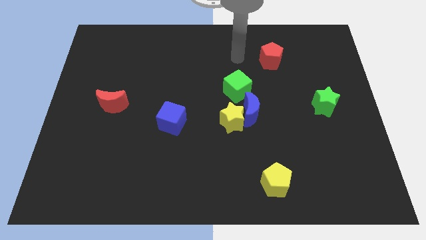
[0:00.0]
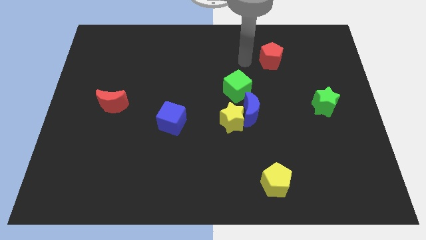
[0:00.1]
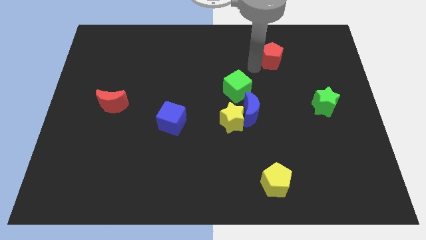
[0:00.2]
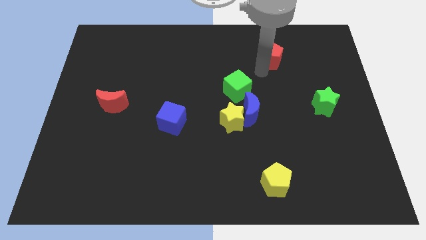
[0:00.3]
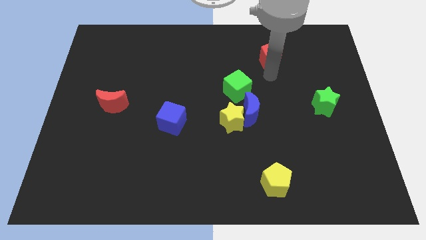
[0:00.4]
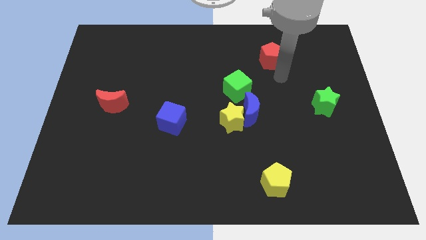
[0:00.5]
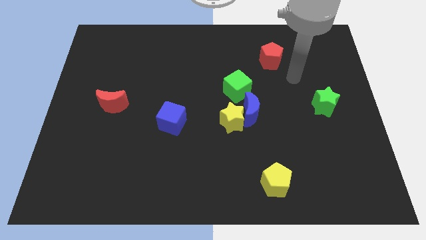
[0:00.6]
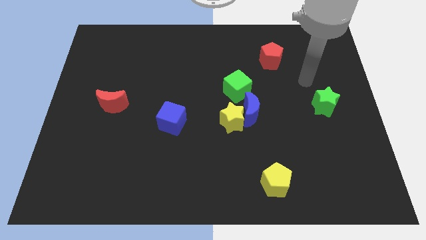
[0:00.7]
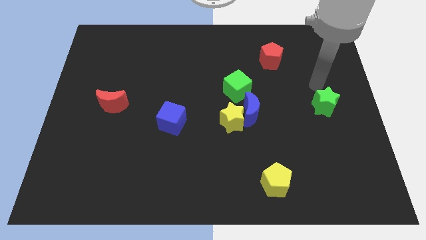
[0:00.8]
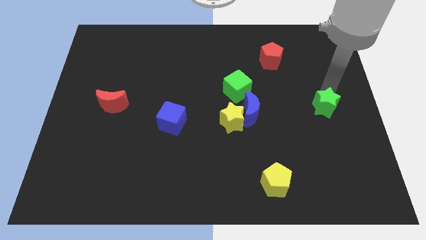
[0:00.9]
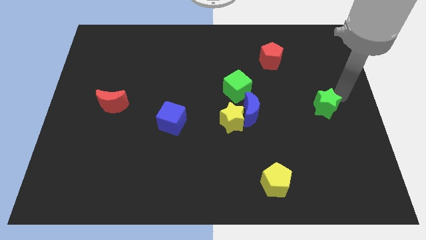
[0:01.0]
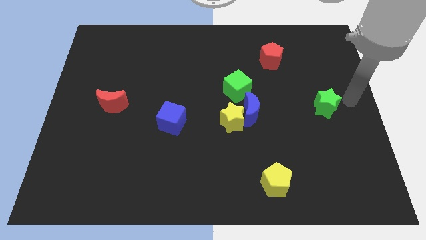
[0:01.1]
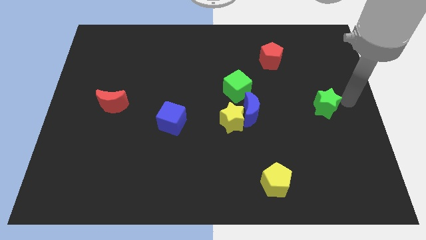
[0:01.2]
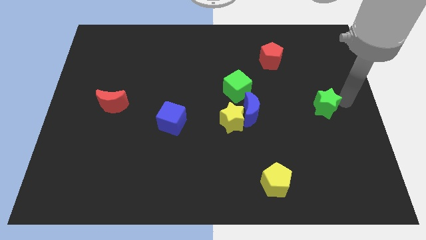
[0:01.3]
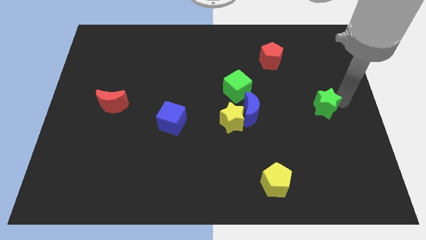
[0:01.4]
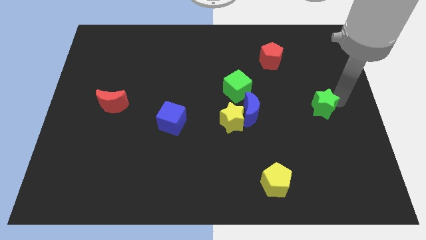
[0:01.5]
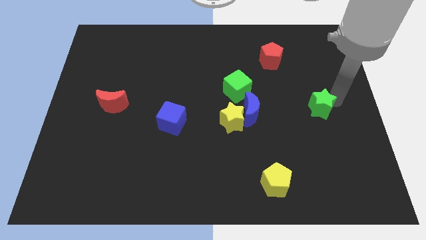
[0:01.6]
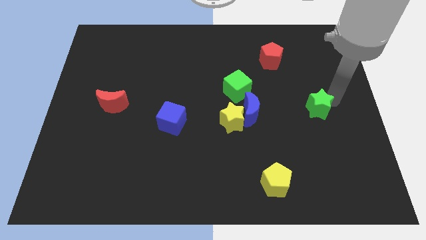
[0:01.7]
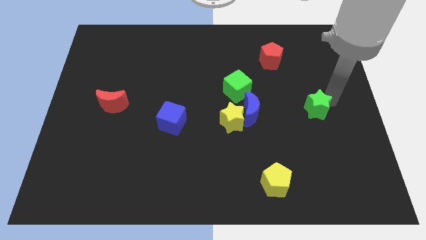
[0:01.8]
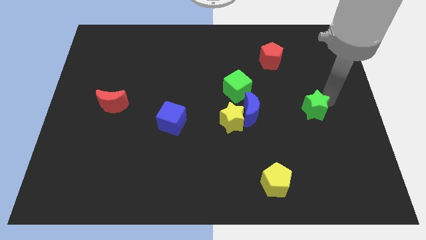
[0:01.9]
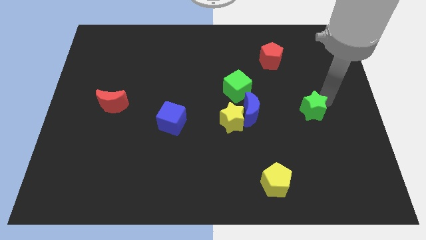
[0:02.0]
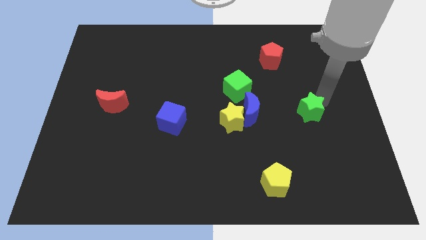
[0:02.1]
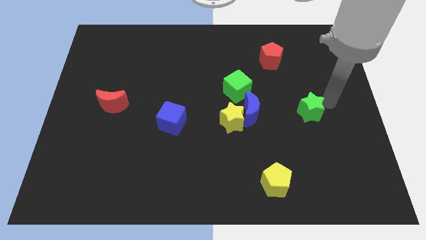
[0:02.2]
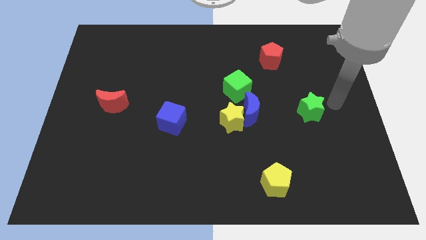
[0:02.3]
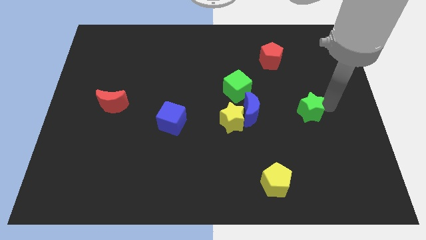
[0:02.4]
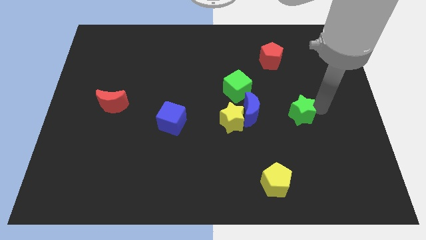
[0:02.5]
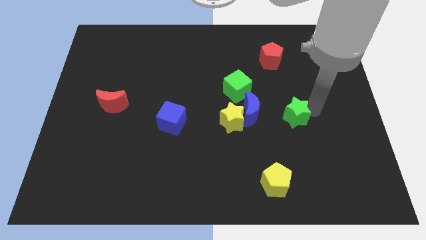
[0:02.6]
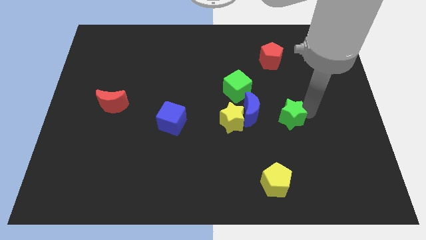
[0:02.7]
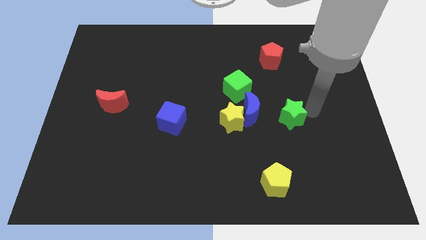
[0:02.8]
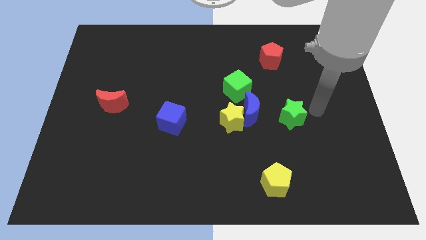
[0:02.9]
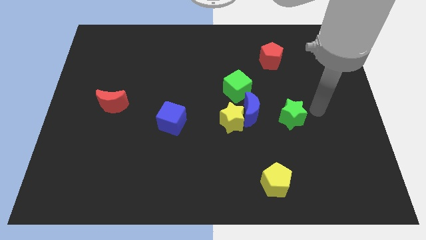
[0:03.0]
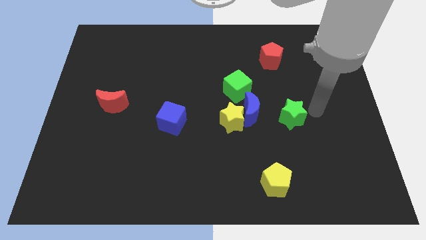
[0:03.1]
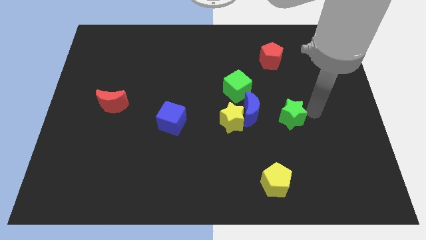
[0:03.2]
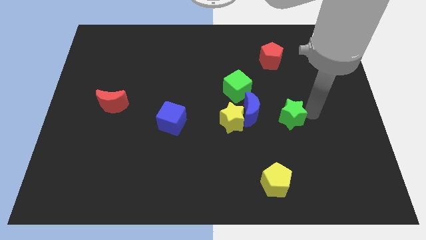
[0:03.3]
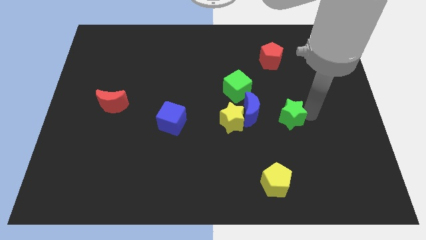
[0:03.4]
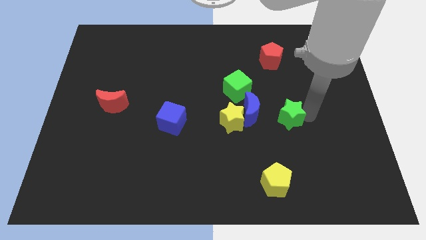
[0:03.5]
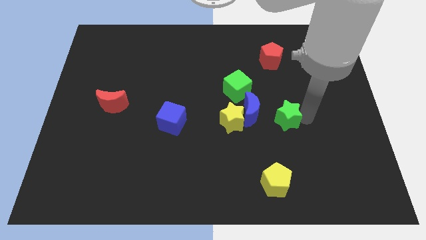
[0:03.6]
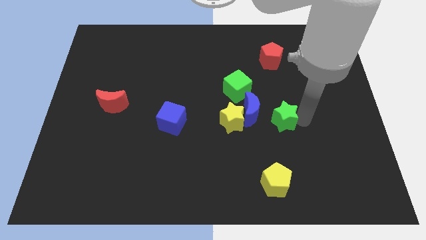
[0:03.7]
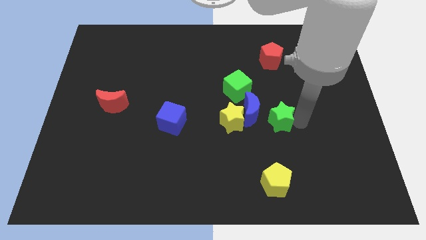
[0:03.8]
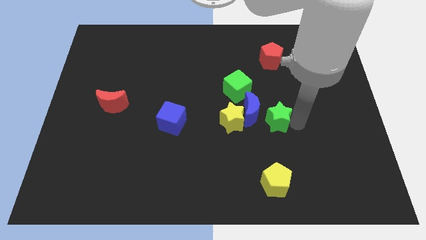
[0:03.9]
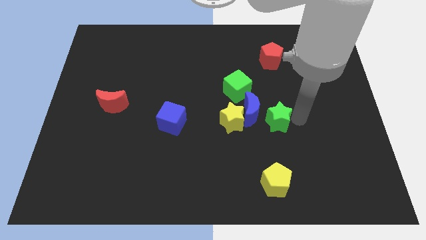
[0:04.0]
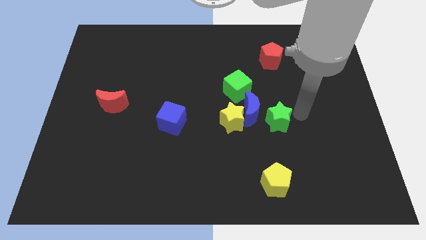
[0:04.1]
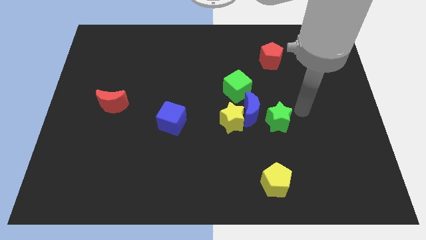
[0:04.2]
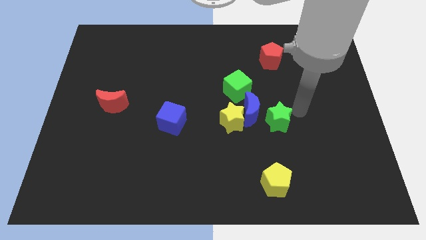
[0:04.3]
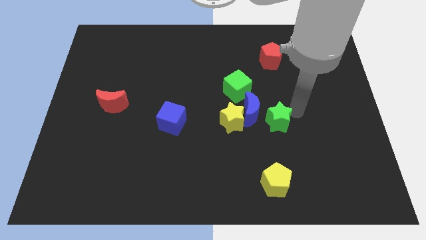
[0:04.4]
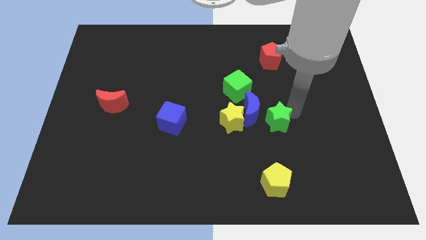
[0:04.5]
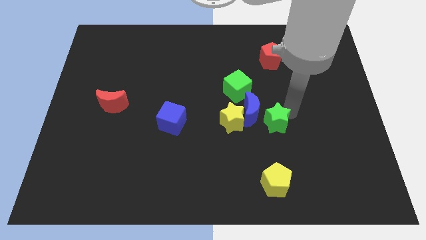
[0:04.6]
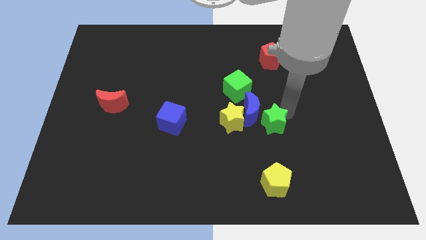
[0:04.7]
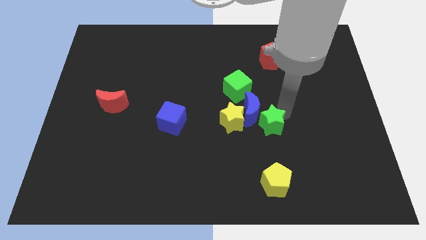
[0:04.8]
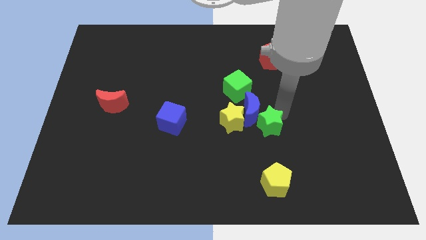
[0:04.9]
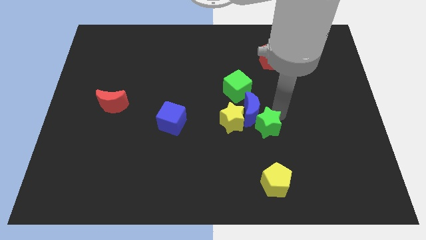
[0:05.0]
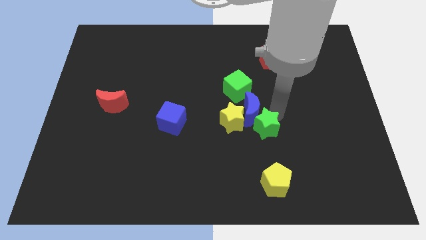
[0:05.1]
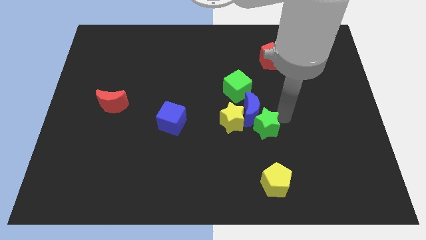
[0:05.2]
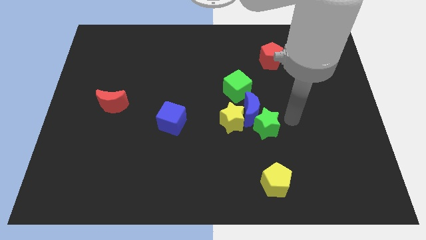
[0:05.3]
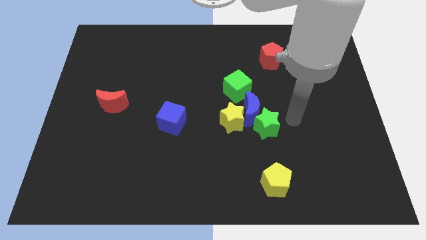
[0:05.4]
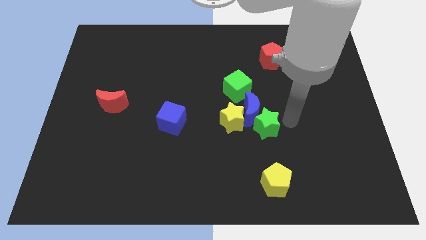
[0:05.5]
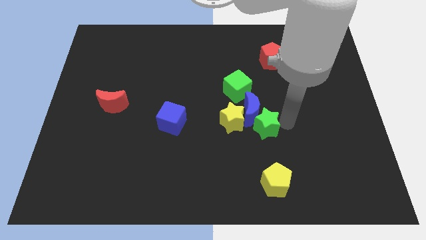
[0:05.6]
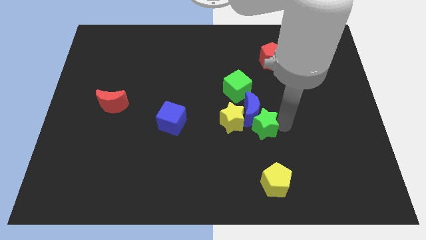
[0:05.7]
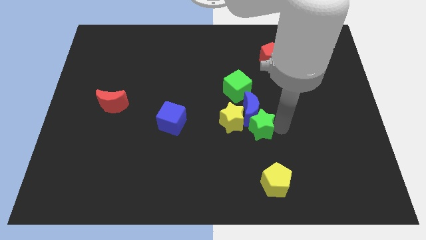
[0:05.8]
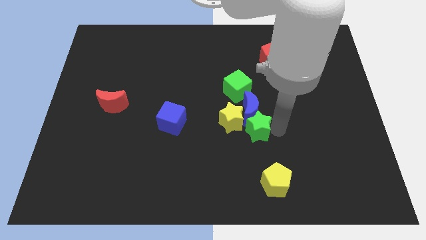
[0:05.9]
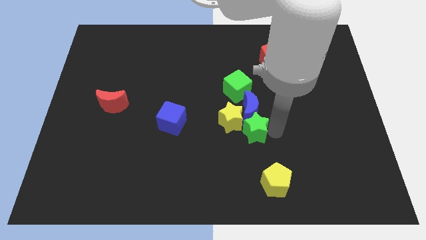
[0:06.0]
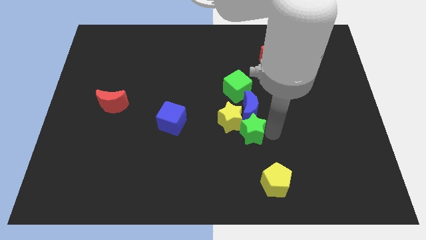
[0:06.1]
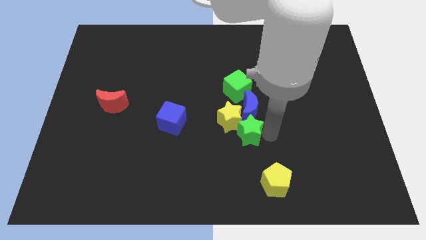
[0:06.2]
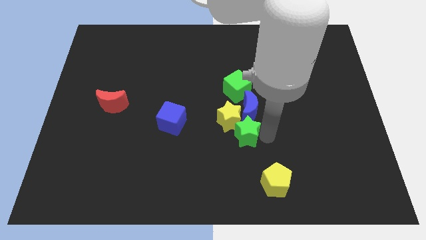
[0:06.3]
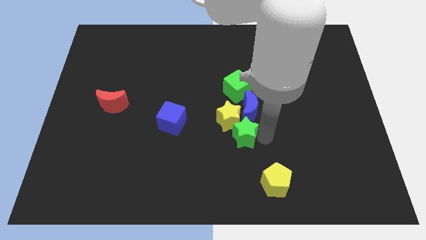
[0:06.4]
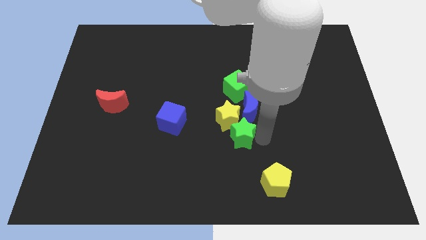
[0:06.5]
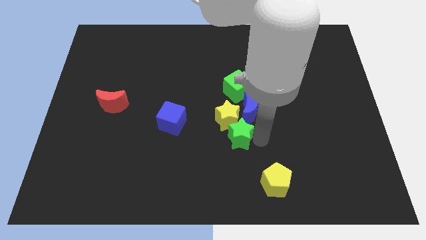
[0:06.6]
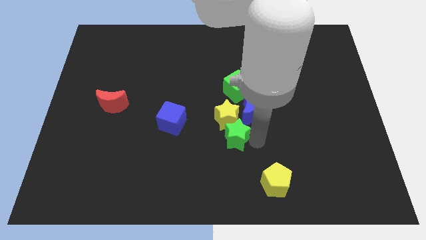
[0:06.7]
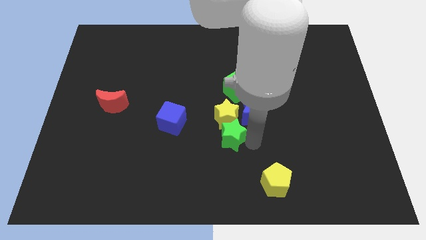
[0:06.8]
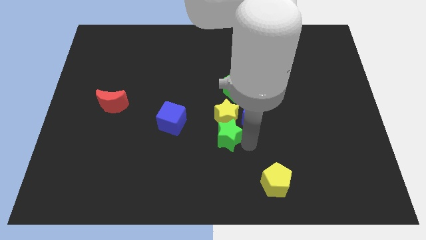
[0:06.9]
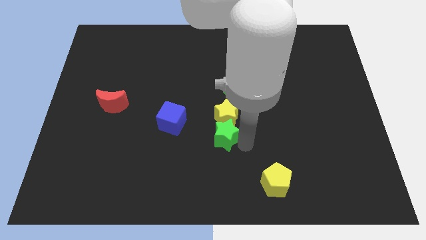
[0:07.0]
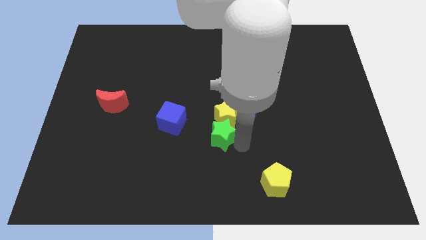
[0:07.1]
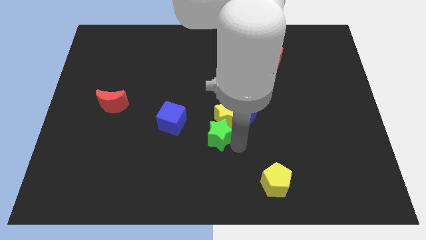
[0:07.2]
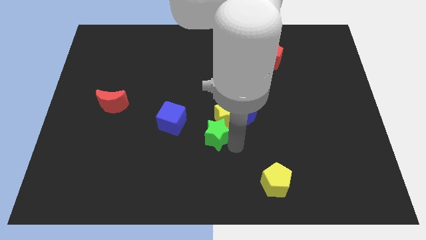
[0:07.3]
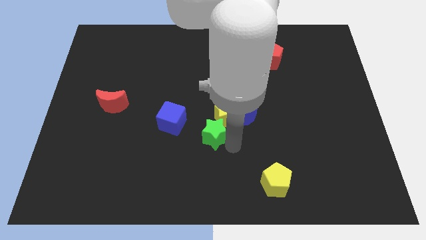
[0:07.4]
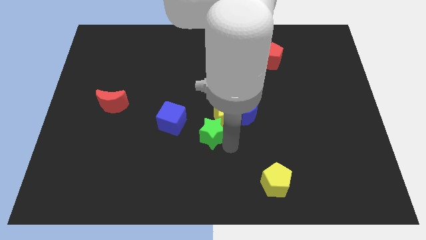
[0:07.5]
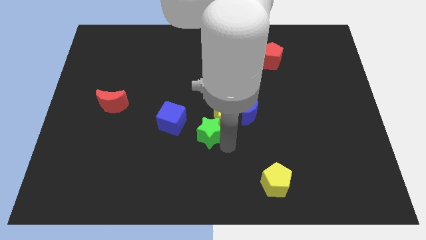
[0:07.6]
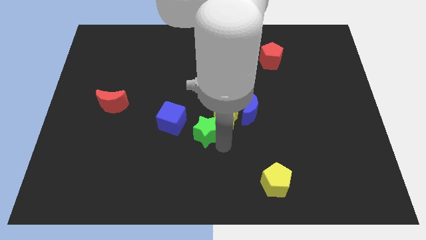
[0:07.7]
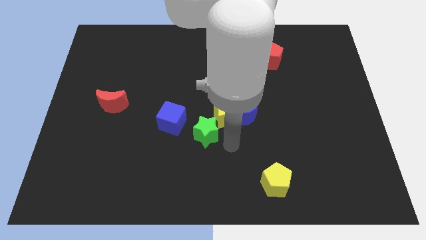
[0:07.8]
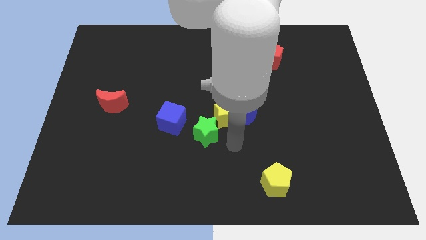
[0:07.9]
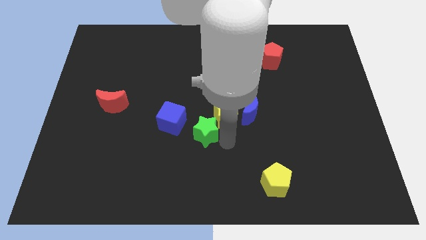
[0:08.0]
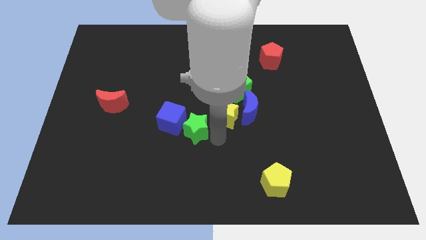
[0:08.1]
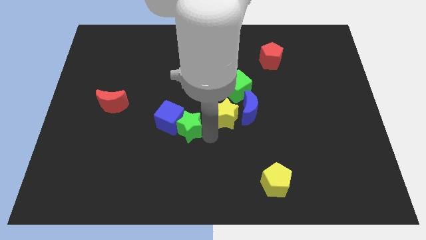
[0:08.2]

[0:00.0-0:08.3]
slide the green star to the blue cube
